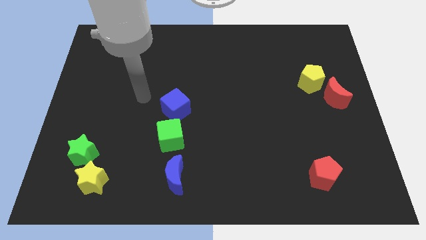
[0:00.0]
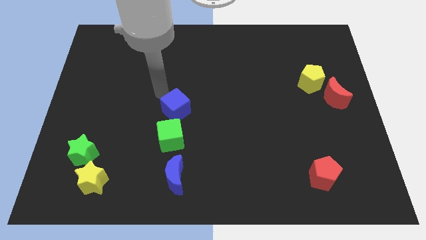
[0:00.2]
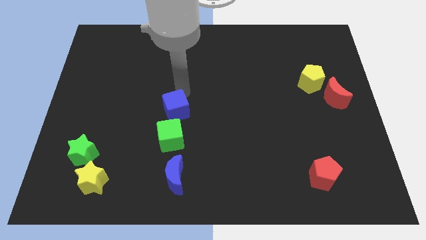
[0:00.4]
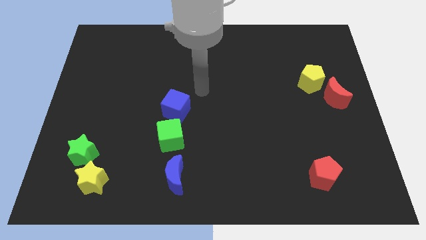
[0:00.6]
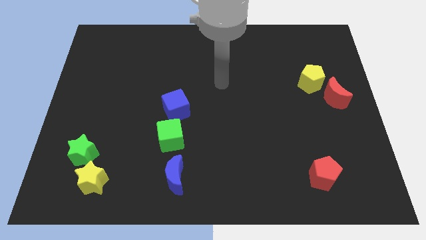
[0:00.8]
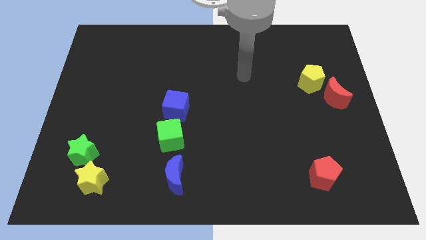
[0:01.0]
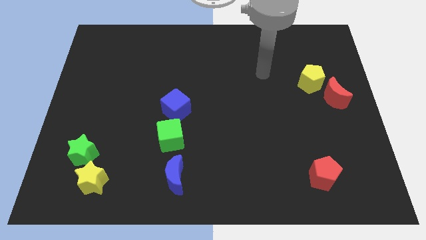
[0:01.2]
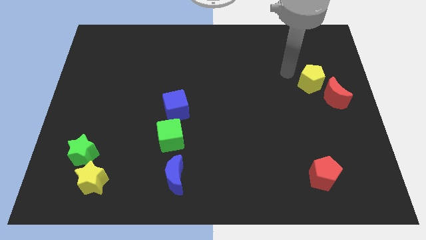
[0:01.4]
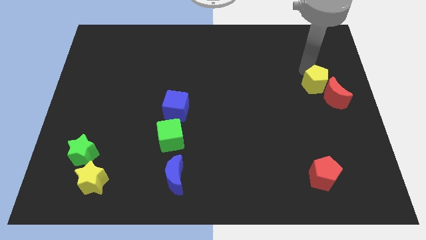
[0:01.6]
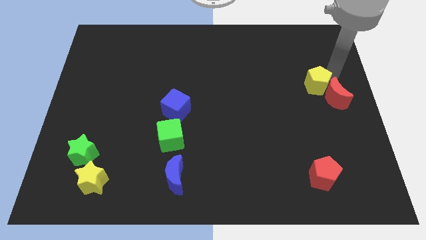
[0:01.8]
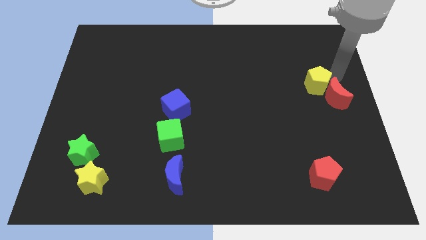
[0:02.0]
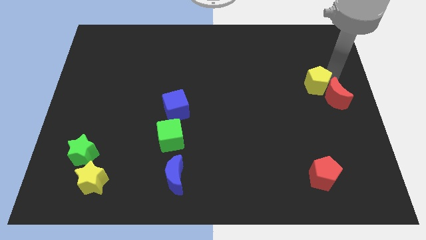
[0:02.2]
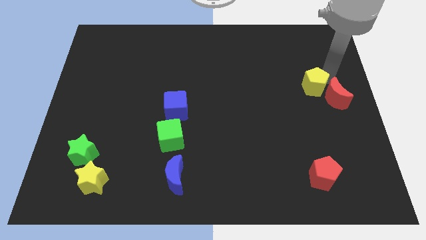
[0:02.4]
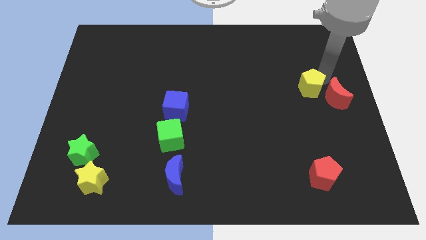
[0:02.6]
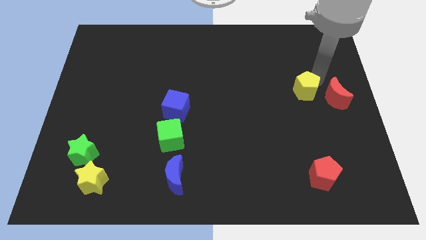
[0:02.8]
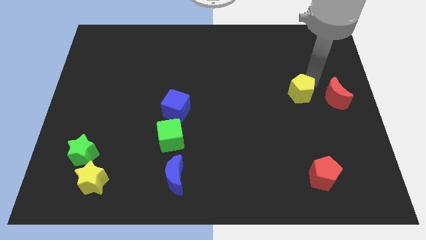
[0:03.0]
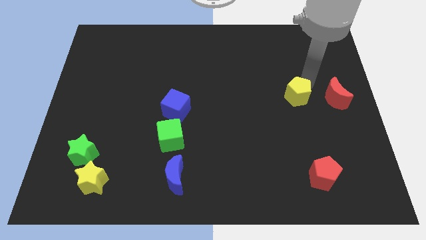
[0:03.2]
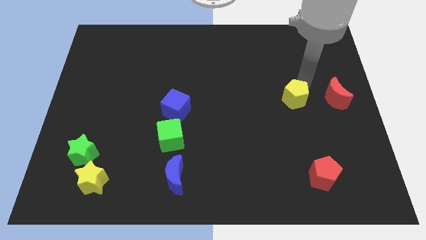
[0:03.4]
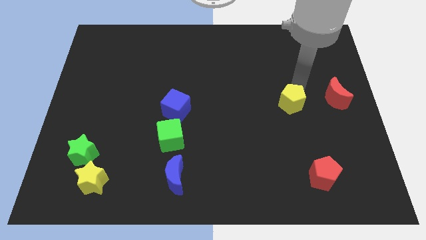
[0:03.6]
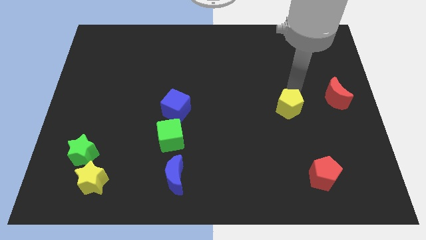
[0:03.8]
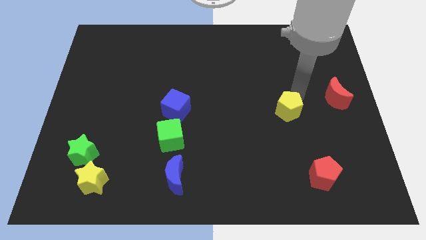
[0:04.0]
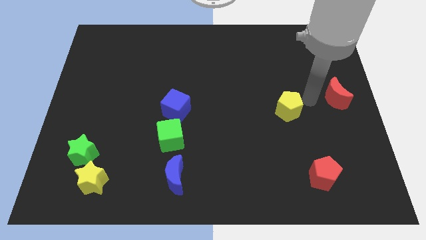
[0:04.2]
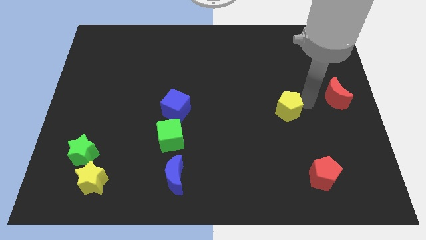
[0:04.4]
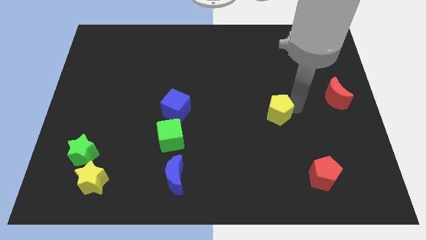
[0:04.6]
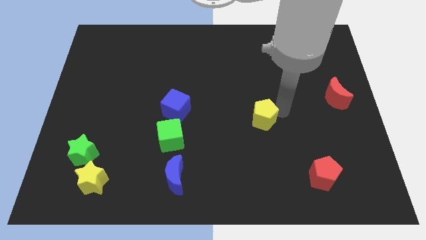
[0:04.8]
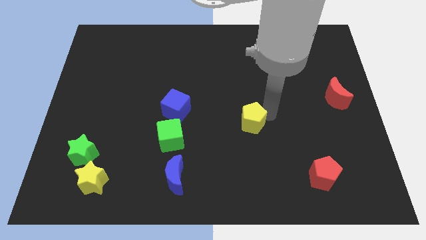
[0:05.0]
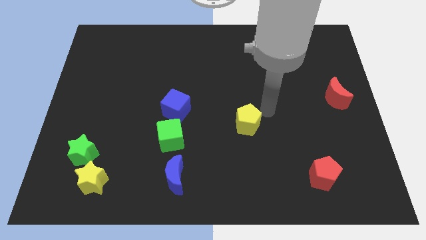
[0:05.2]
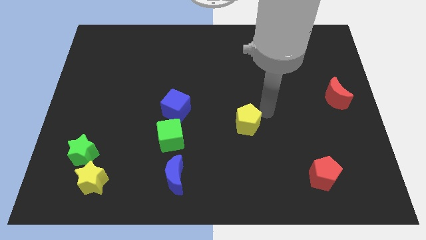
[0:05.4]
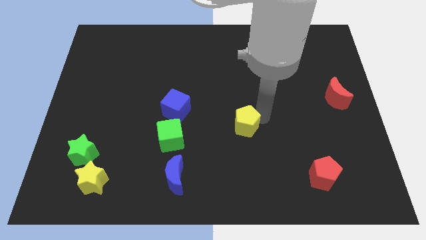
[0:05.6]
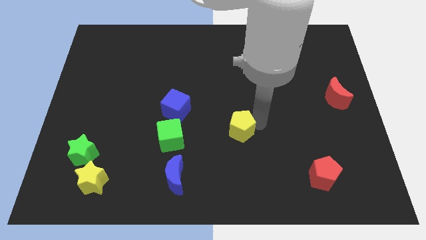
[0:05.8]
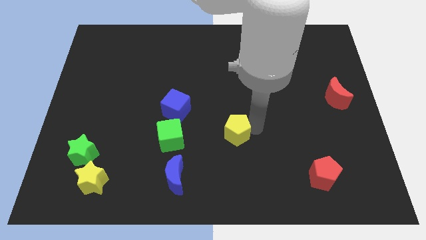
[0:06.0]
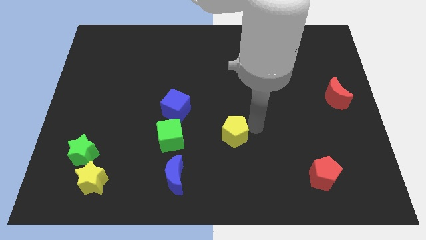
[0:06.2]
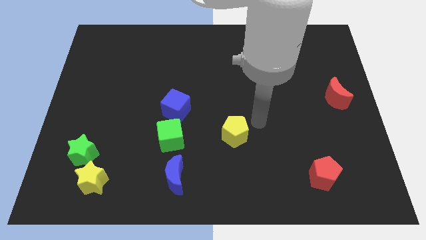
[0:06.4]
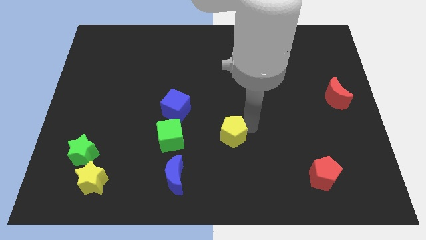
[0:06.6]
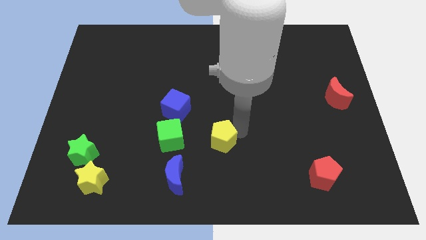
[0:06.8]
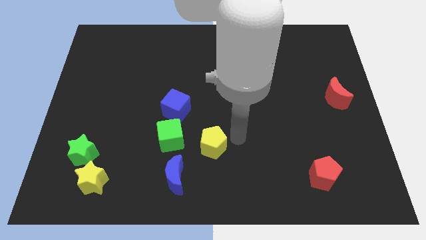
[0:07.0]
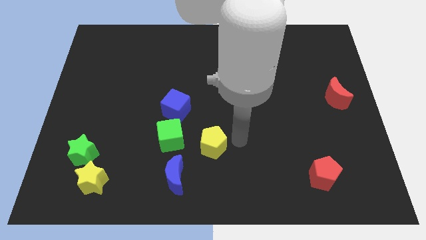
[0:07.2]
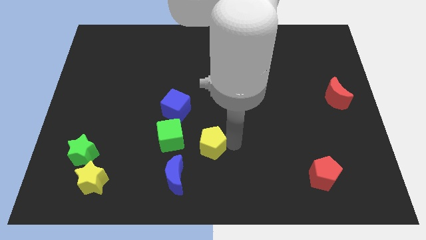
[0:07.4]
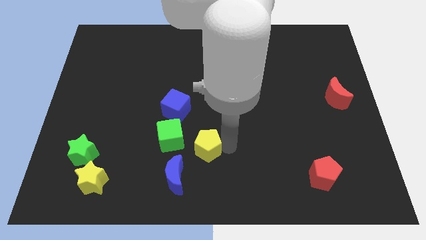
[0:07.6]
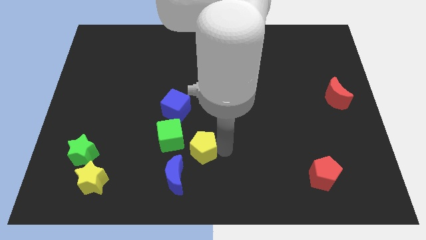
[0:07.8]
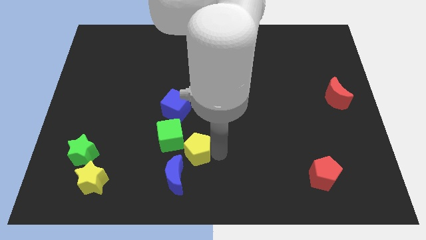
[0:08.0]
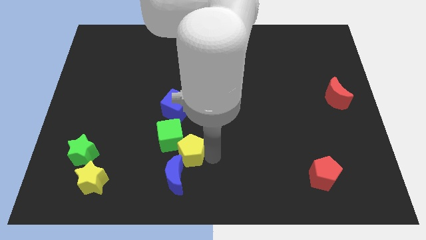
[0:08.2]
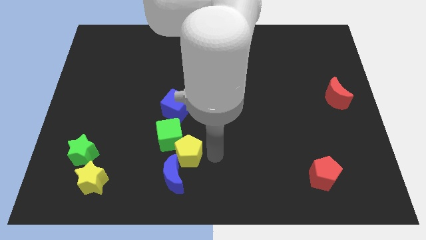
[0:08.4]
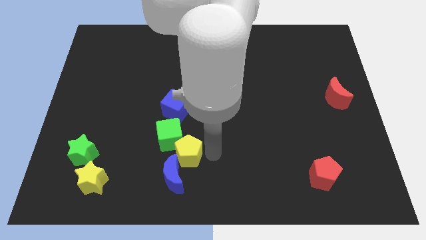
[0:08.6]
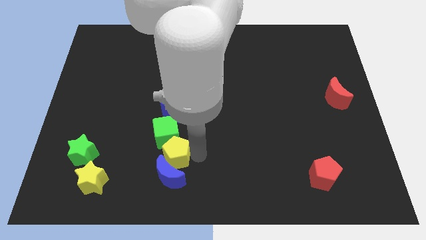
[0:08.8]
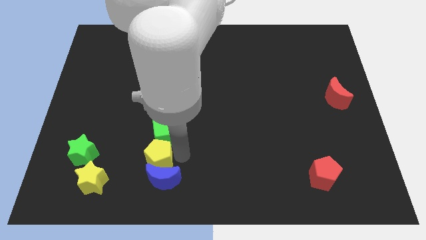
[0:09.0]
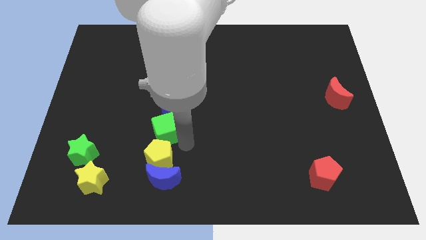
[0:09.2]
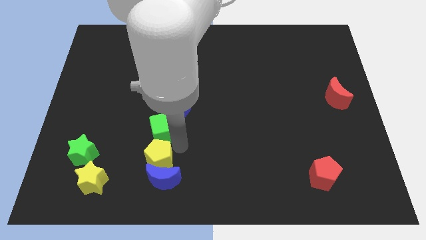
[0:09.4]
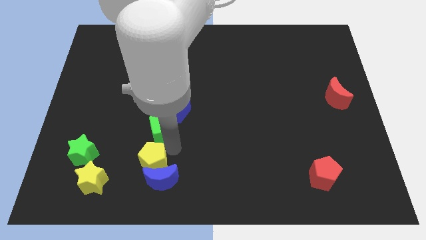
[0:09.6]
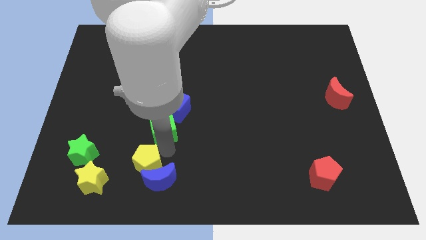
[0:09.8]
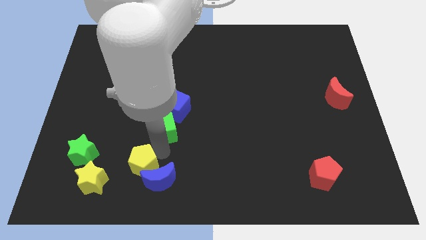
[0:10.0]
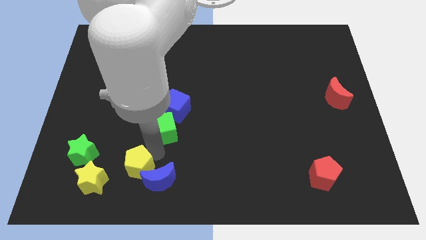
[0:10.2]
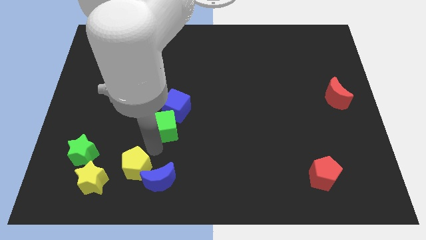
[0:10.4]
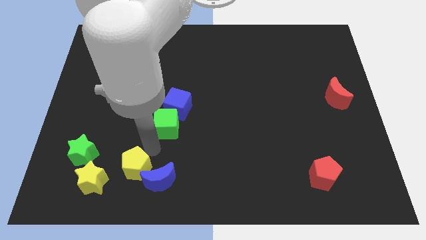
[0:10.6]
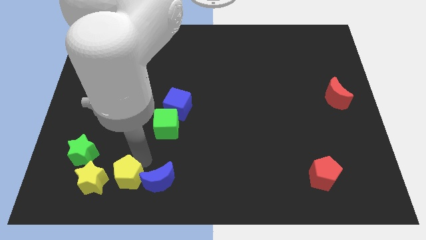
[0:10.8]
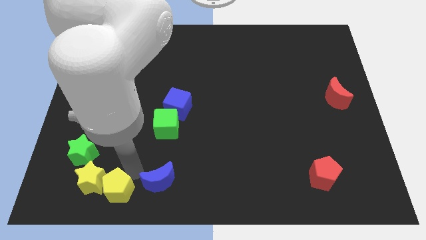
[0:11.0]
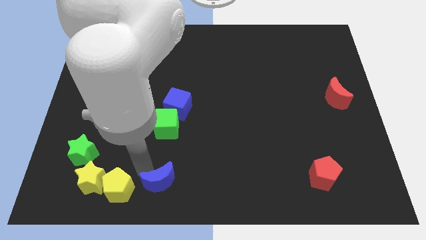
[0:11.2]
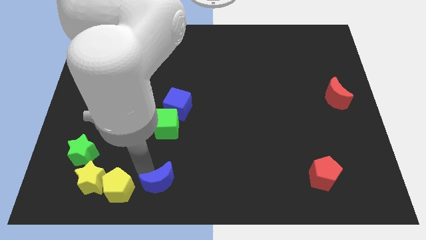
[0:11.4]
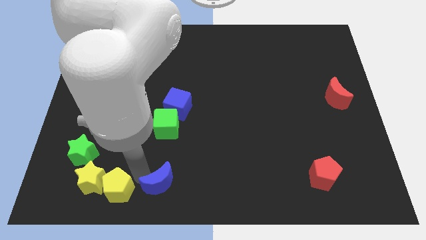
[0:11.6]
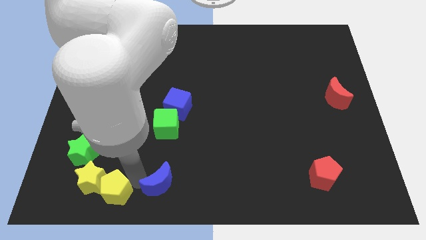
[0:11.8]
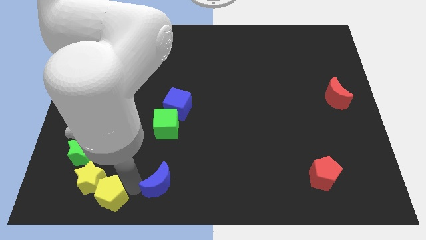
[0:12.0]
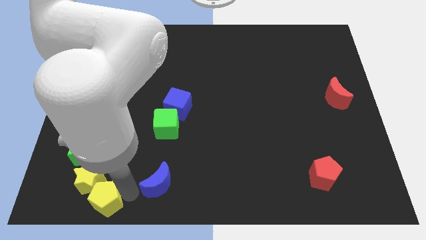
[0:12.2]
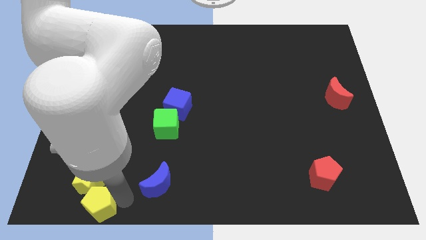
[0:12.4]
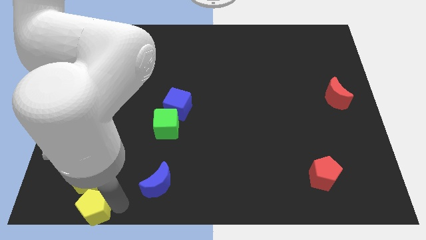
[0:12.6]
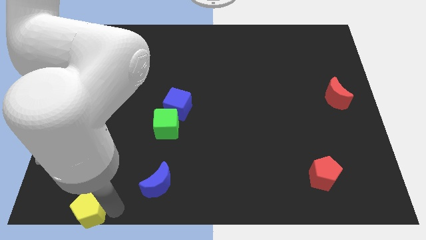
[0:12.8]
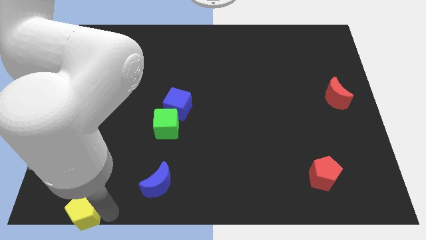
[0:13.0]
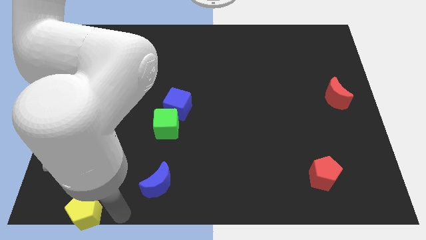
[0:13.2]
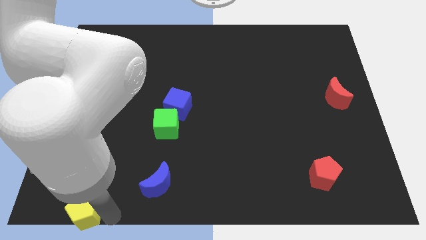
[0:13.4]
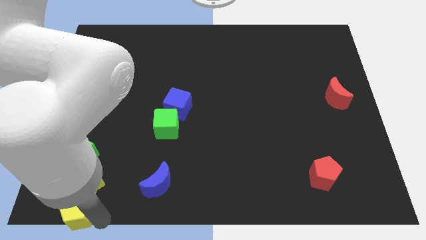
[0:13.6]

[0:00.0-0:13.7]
slide the yellow pentagon to the bottom left

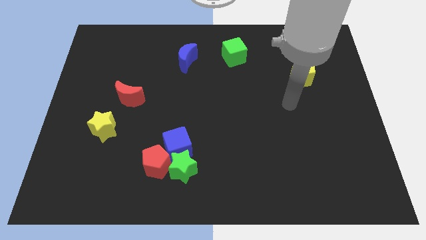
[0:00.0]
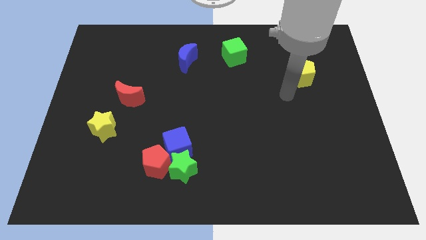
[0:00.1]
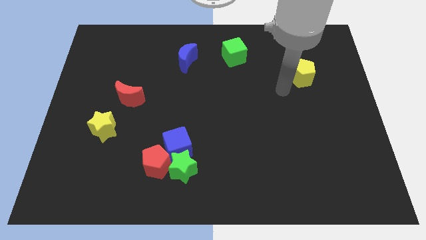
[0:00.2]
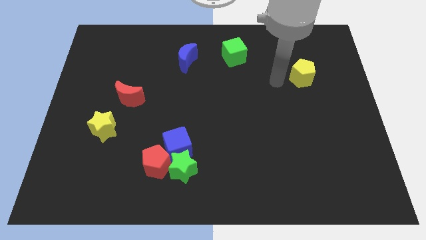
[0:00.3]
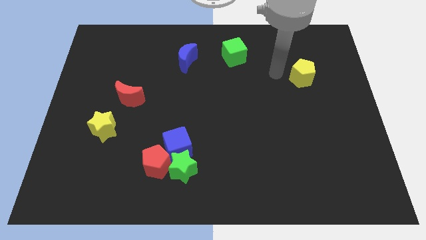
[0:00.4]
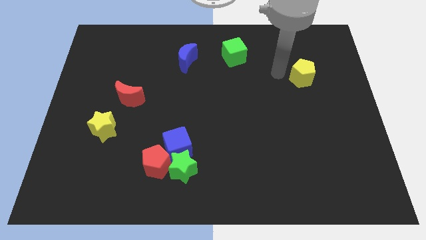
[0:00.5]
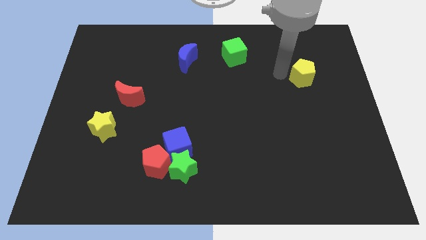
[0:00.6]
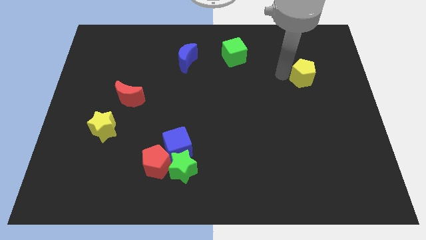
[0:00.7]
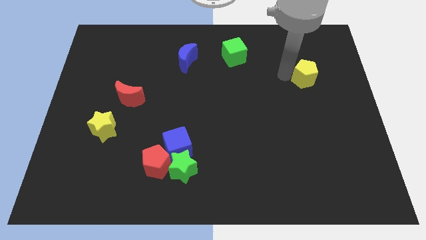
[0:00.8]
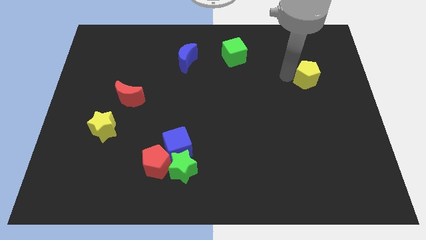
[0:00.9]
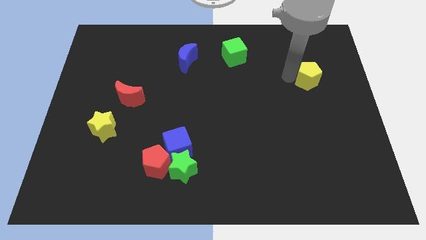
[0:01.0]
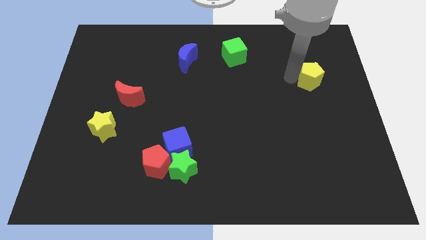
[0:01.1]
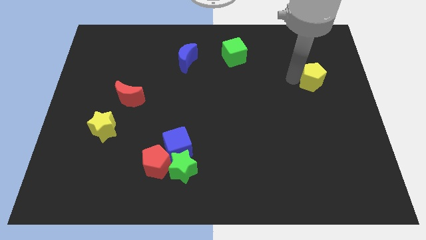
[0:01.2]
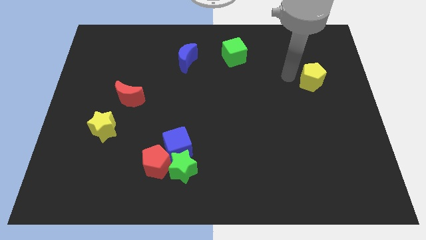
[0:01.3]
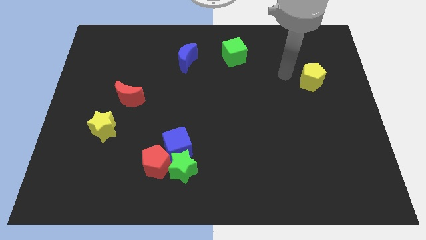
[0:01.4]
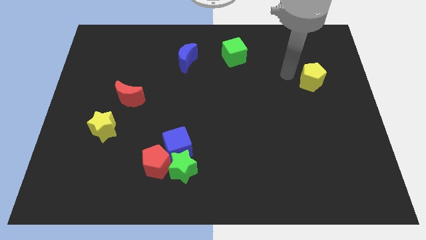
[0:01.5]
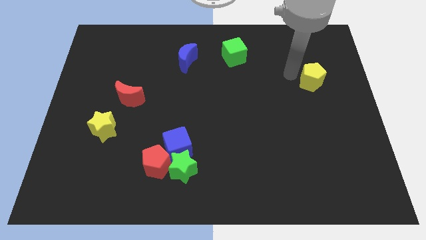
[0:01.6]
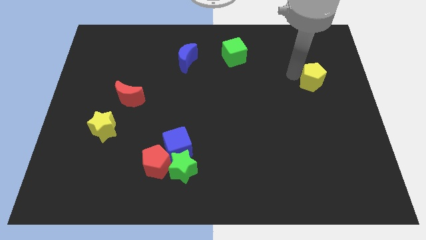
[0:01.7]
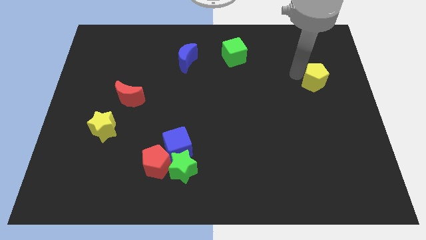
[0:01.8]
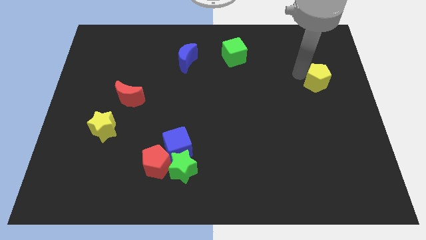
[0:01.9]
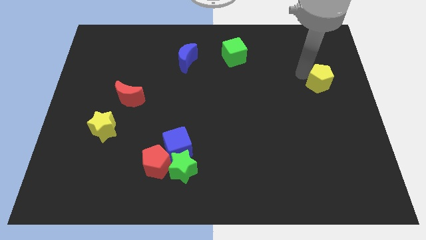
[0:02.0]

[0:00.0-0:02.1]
slide the yellow pentagon to the right side
